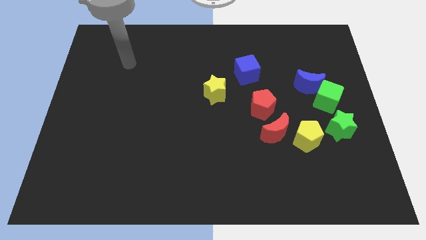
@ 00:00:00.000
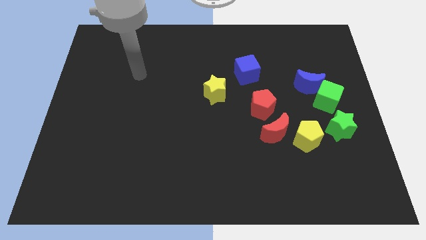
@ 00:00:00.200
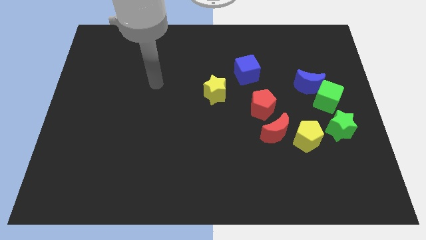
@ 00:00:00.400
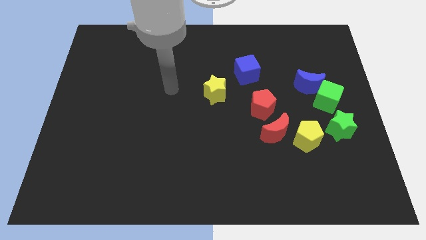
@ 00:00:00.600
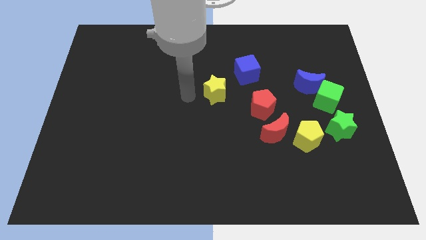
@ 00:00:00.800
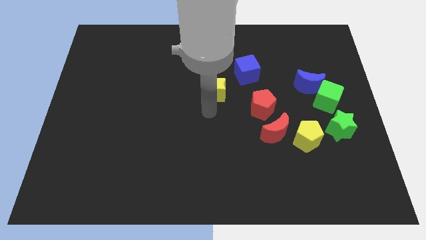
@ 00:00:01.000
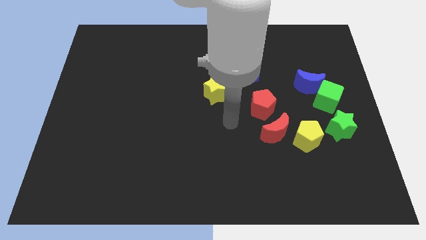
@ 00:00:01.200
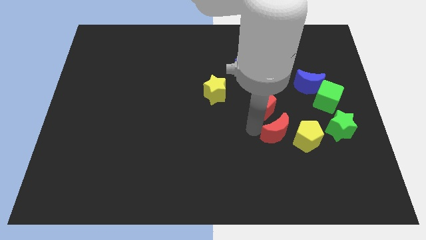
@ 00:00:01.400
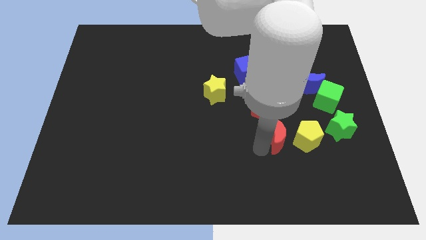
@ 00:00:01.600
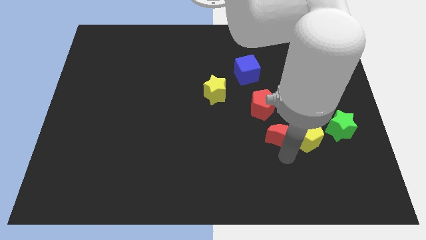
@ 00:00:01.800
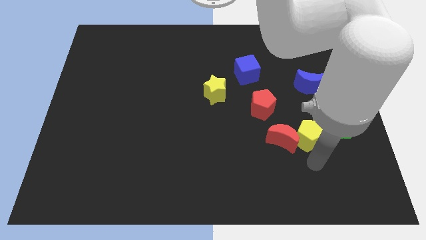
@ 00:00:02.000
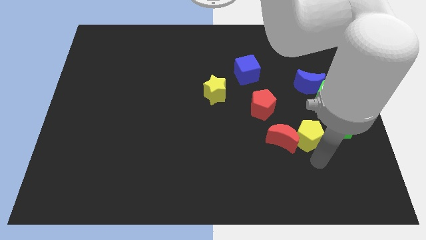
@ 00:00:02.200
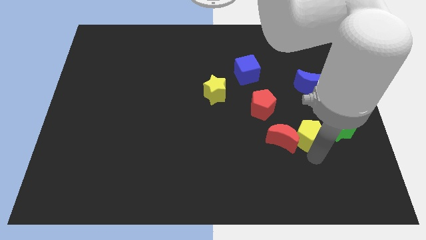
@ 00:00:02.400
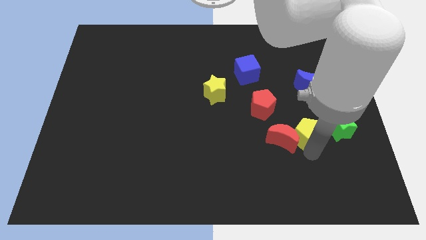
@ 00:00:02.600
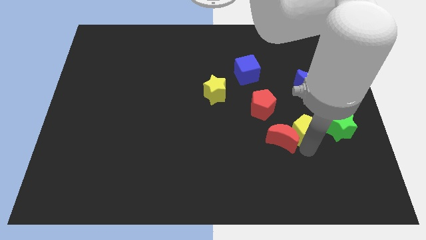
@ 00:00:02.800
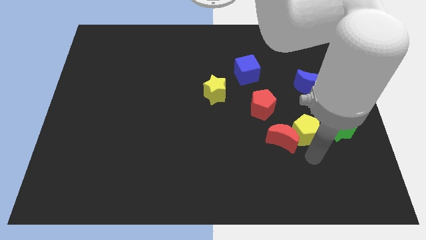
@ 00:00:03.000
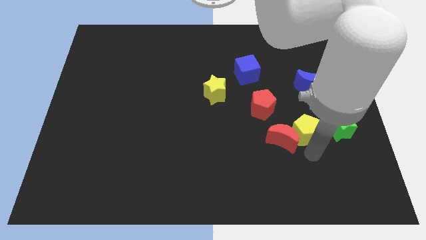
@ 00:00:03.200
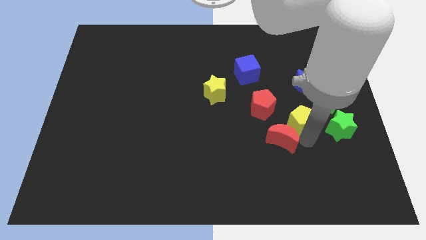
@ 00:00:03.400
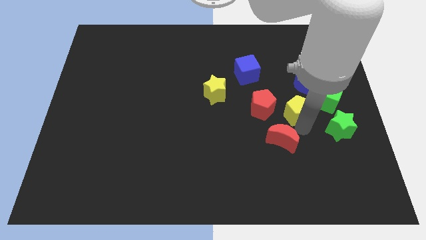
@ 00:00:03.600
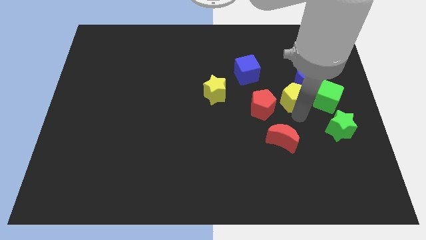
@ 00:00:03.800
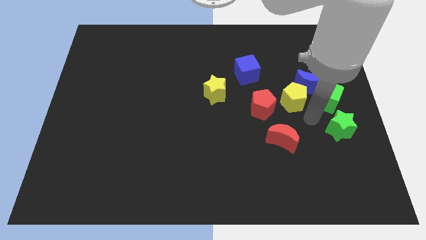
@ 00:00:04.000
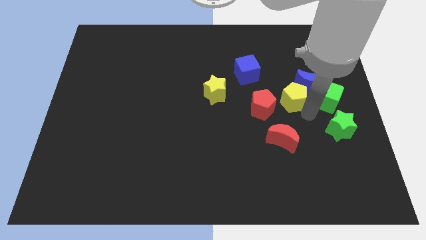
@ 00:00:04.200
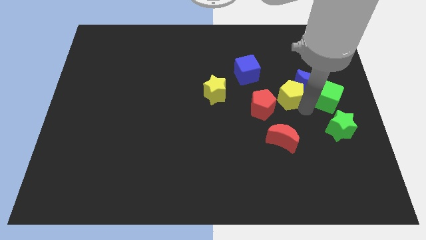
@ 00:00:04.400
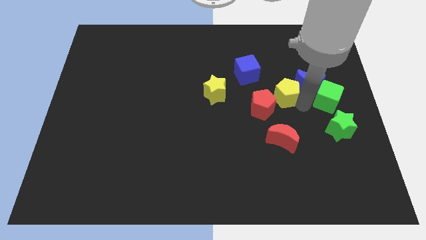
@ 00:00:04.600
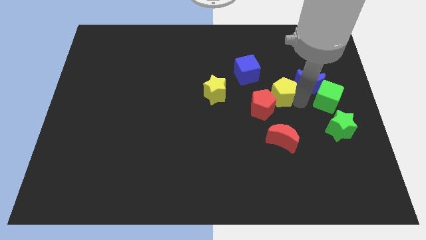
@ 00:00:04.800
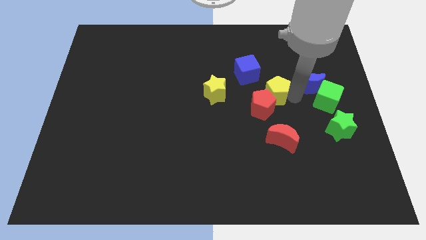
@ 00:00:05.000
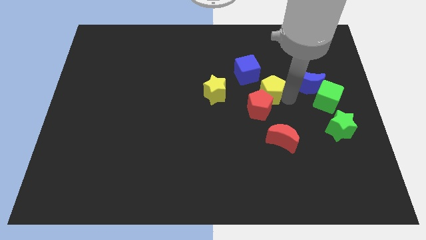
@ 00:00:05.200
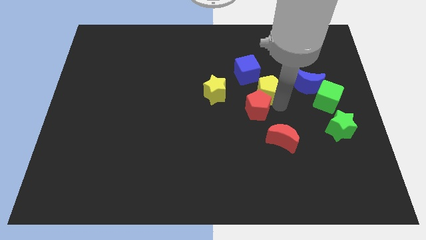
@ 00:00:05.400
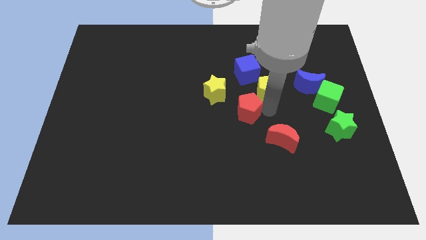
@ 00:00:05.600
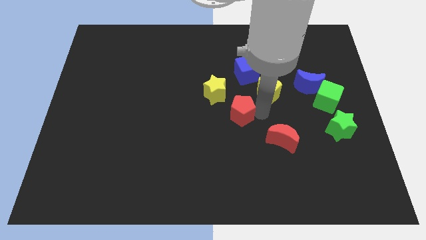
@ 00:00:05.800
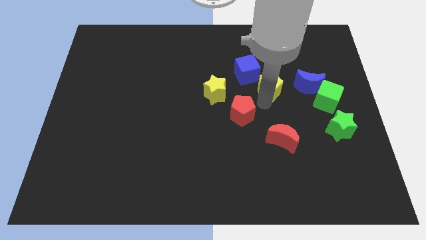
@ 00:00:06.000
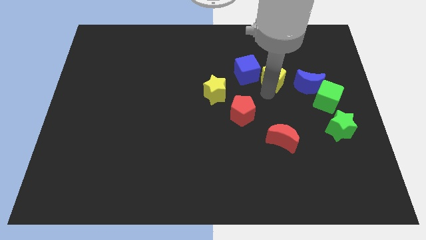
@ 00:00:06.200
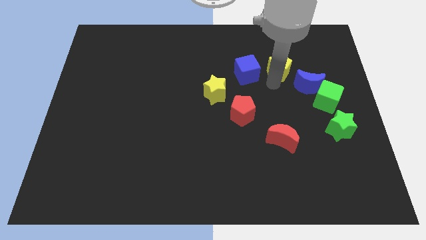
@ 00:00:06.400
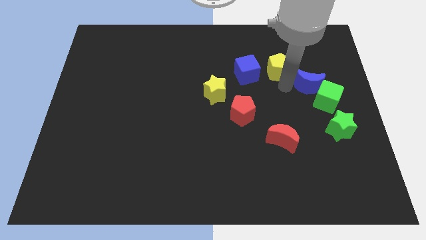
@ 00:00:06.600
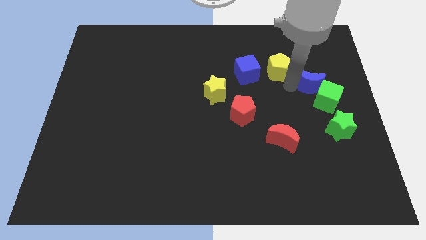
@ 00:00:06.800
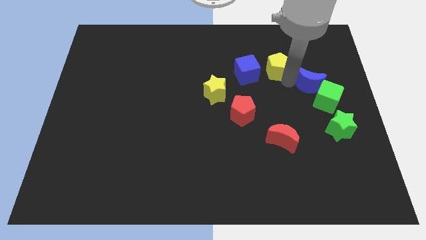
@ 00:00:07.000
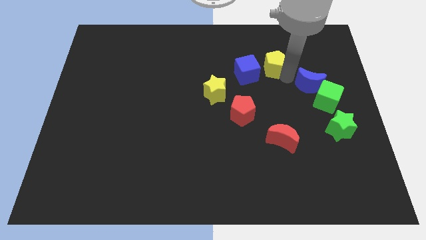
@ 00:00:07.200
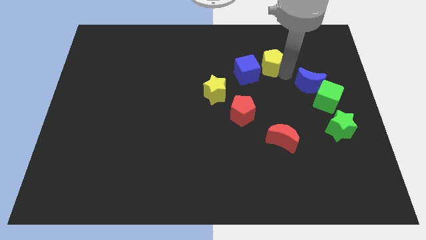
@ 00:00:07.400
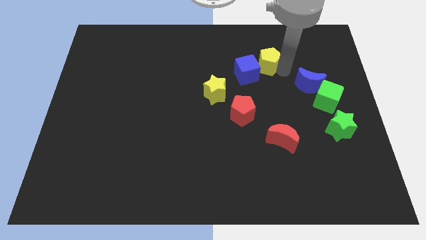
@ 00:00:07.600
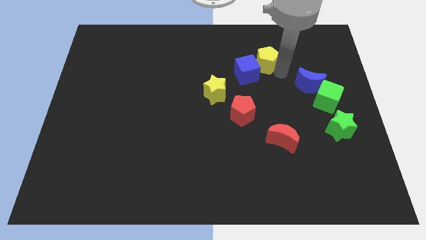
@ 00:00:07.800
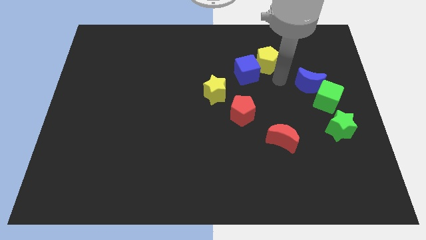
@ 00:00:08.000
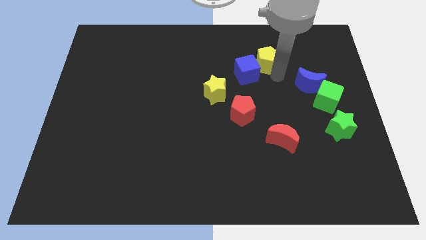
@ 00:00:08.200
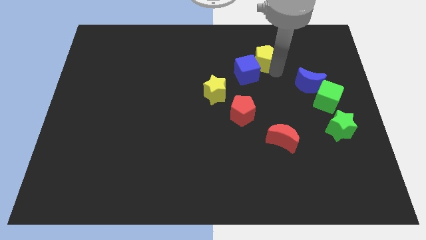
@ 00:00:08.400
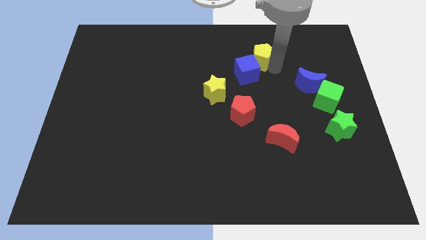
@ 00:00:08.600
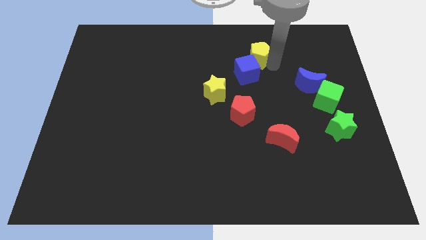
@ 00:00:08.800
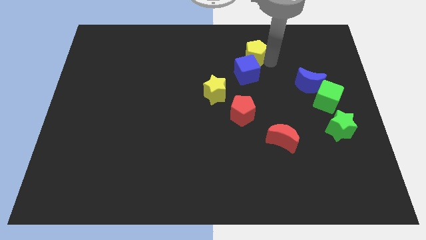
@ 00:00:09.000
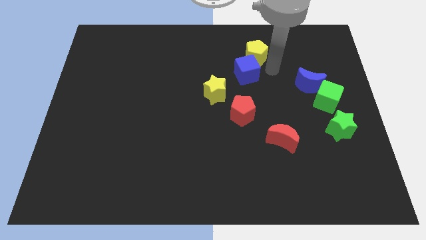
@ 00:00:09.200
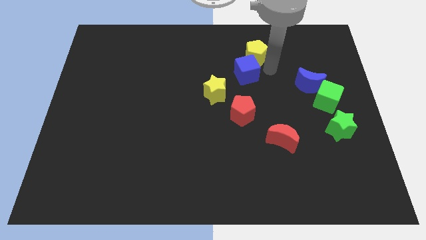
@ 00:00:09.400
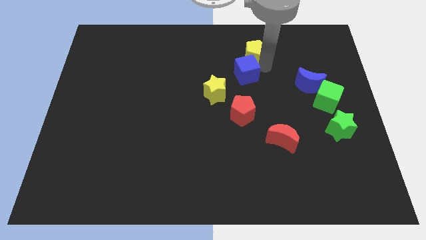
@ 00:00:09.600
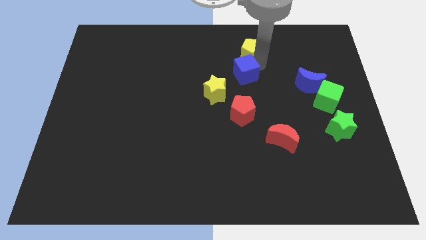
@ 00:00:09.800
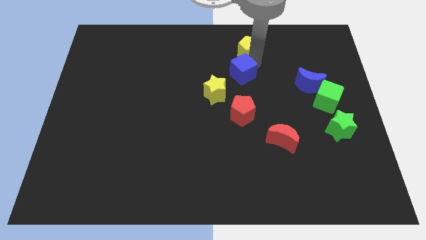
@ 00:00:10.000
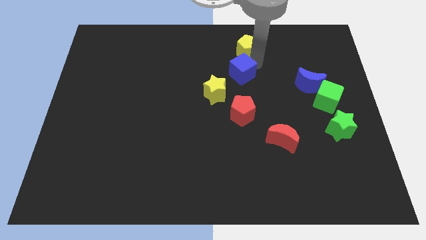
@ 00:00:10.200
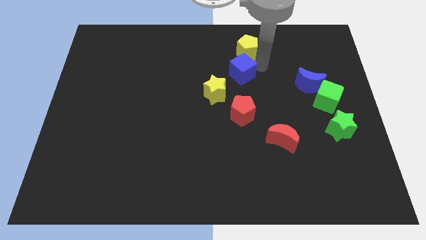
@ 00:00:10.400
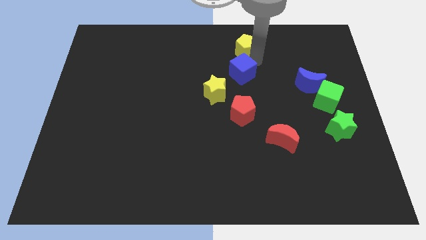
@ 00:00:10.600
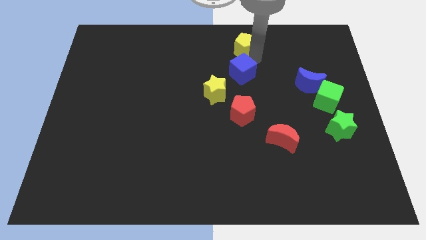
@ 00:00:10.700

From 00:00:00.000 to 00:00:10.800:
push the yellow pentagon to the towards your base

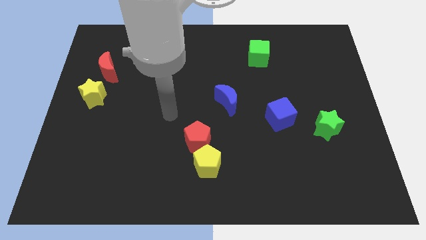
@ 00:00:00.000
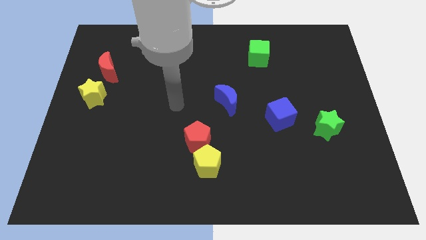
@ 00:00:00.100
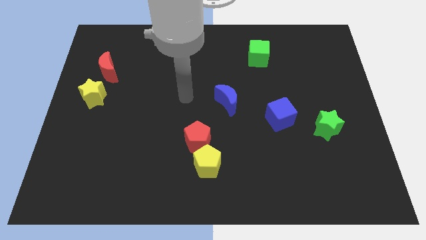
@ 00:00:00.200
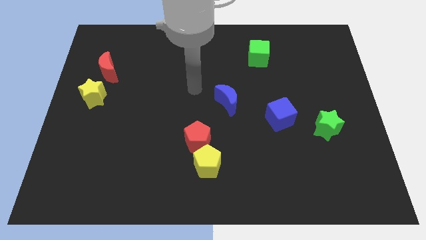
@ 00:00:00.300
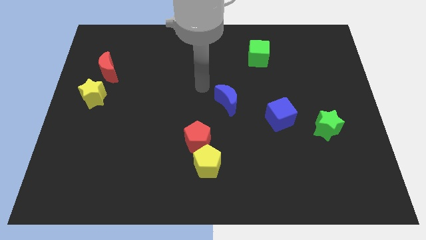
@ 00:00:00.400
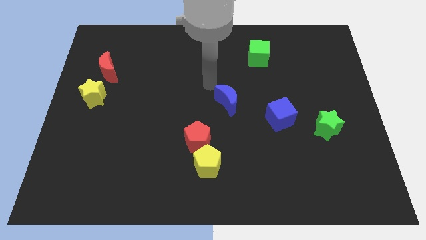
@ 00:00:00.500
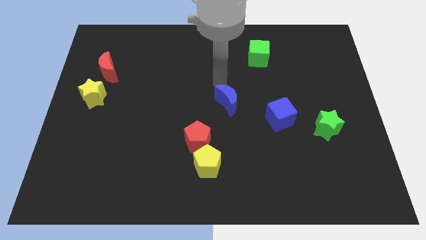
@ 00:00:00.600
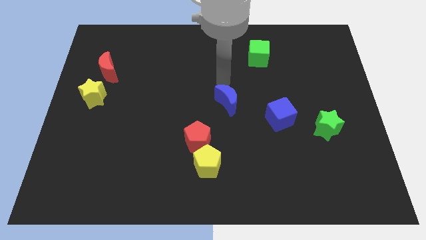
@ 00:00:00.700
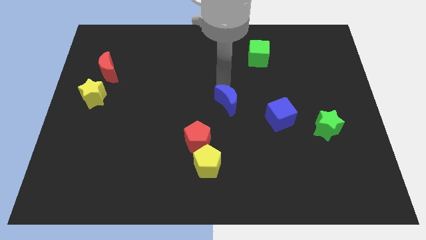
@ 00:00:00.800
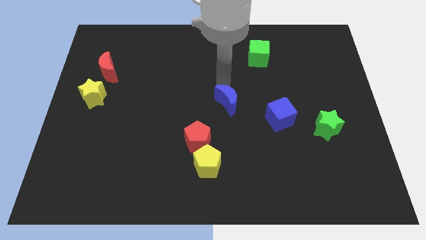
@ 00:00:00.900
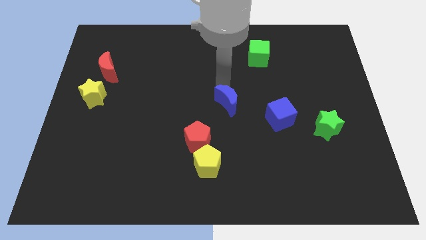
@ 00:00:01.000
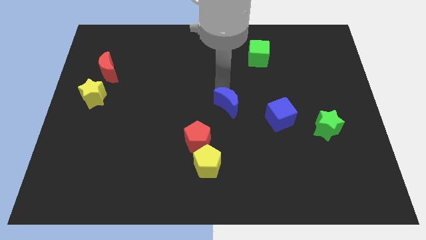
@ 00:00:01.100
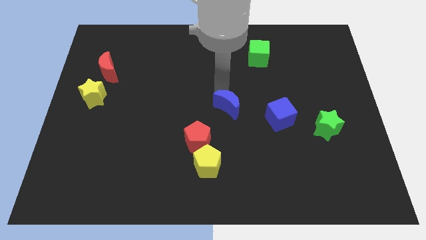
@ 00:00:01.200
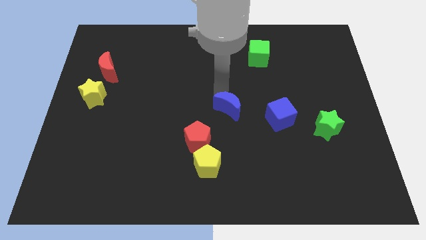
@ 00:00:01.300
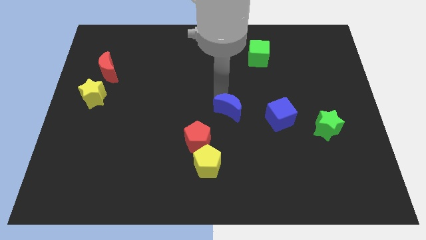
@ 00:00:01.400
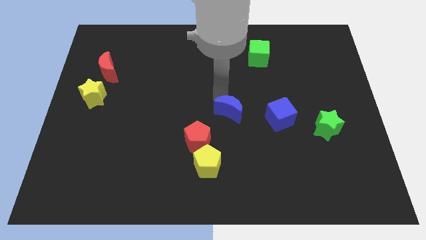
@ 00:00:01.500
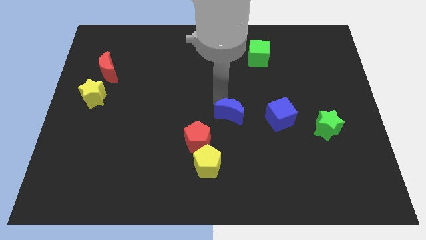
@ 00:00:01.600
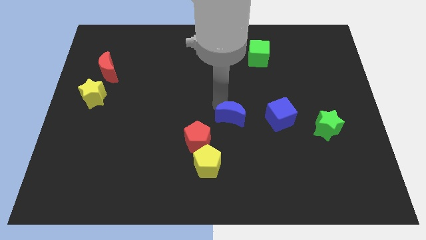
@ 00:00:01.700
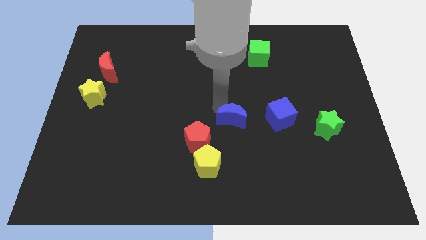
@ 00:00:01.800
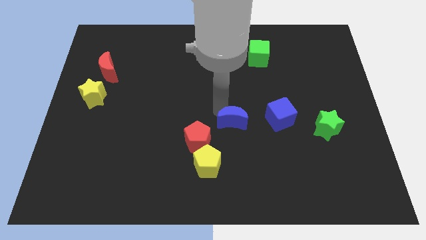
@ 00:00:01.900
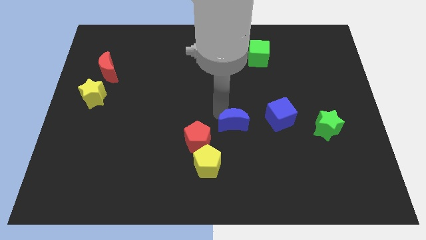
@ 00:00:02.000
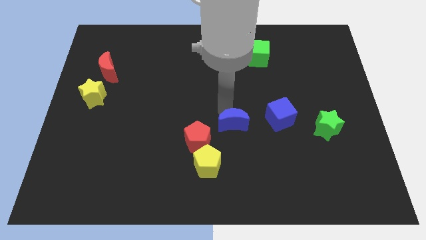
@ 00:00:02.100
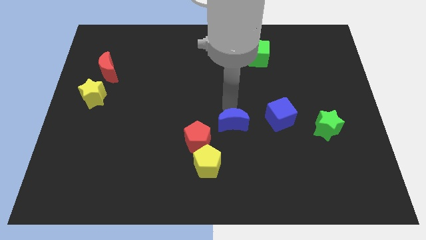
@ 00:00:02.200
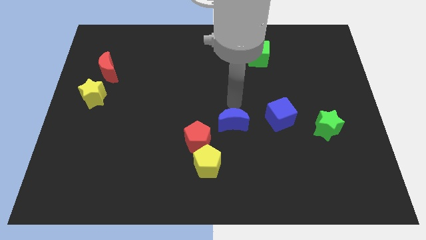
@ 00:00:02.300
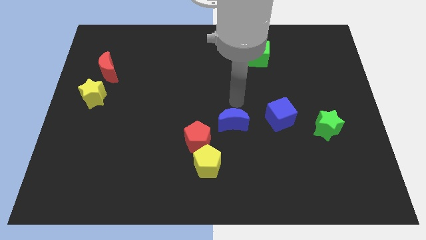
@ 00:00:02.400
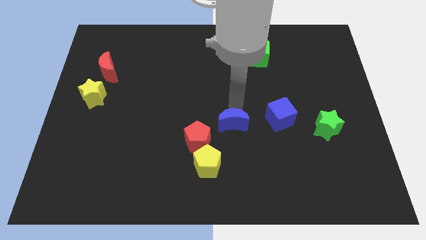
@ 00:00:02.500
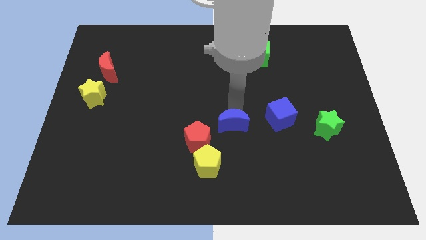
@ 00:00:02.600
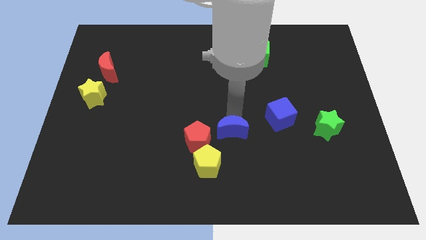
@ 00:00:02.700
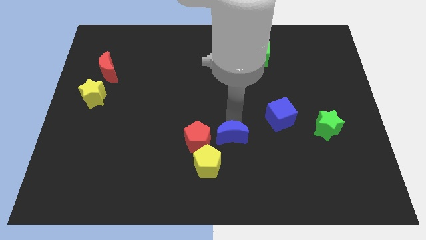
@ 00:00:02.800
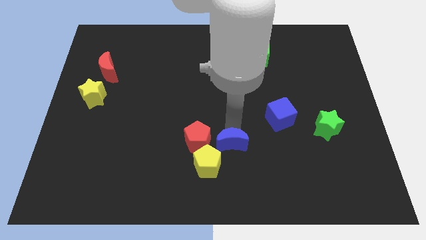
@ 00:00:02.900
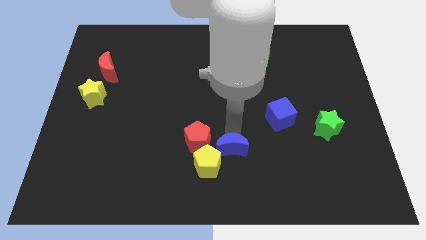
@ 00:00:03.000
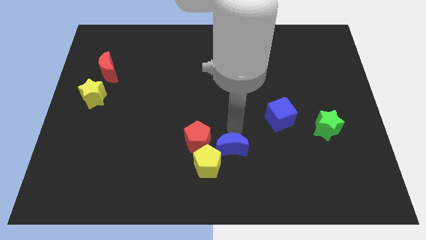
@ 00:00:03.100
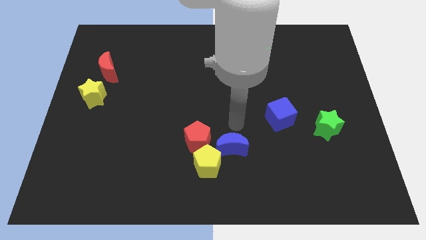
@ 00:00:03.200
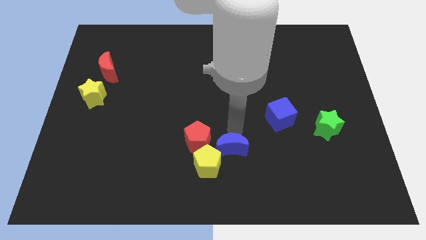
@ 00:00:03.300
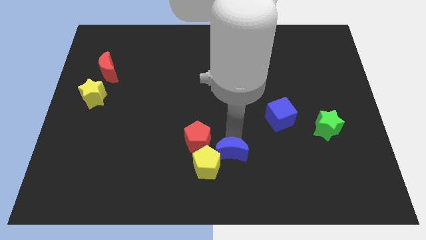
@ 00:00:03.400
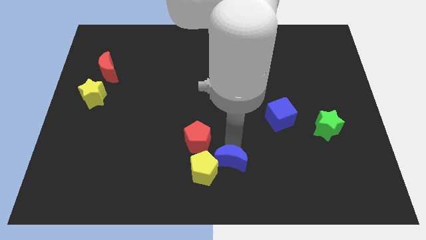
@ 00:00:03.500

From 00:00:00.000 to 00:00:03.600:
move the blue moon to the bottom side
